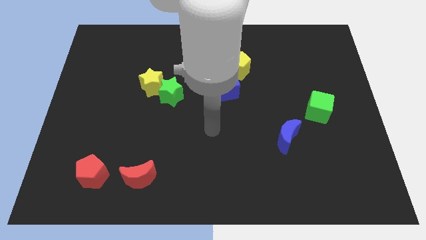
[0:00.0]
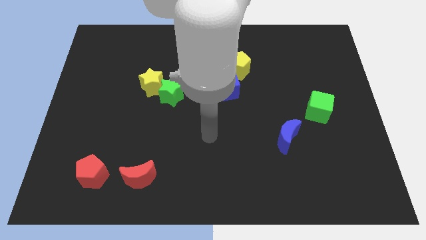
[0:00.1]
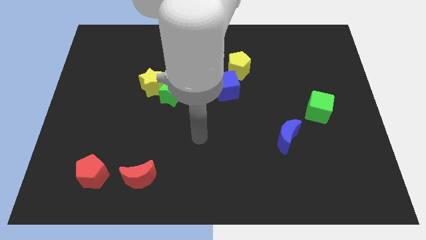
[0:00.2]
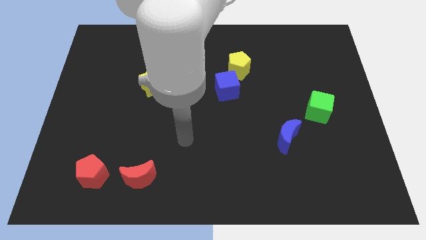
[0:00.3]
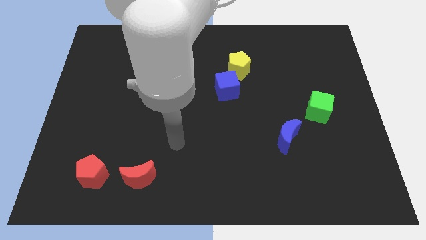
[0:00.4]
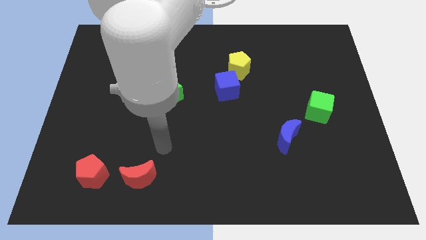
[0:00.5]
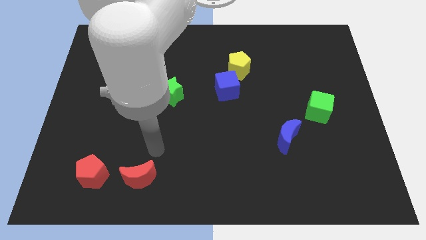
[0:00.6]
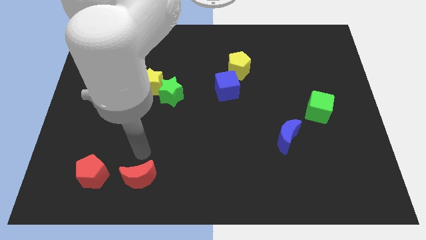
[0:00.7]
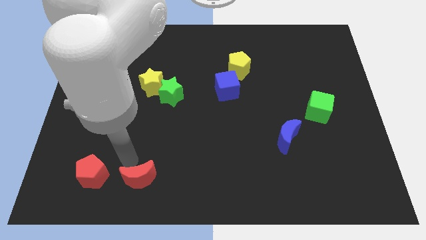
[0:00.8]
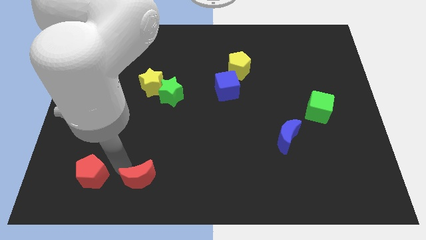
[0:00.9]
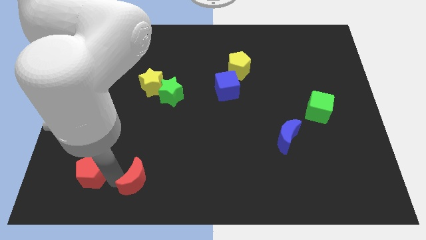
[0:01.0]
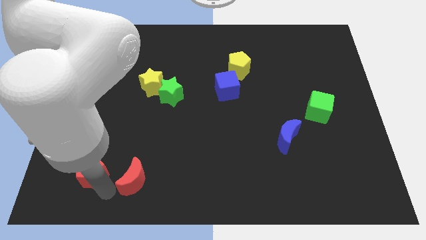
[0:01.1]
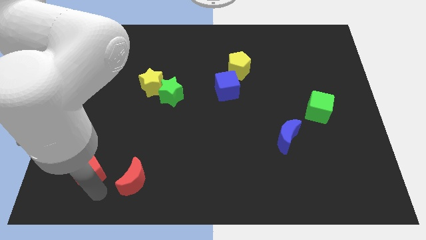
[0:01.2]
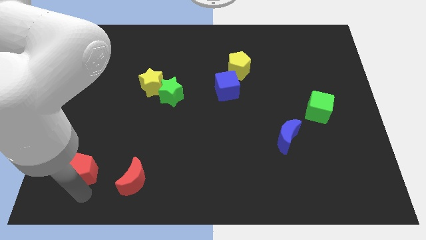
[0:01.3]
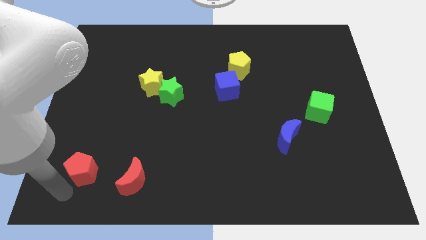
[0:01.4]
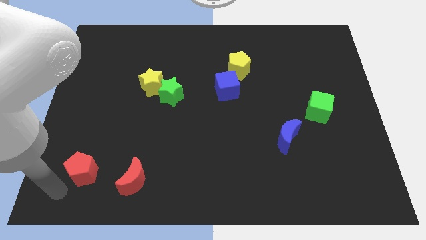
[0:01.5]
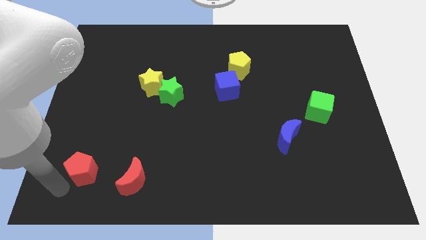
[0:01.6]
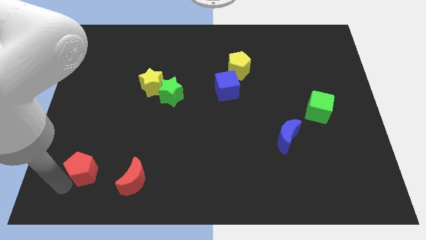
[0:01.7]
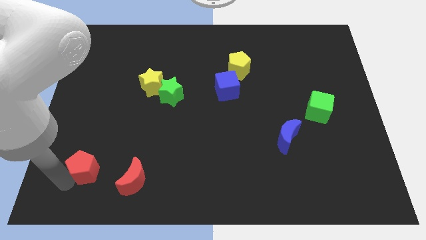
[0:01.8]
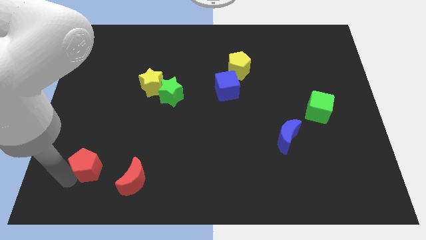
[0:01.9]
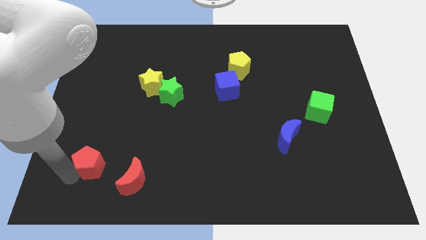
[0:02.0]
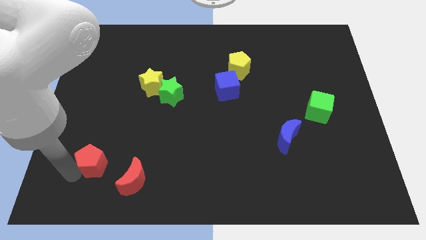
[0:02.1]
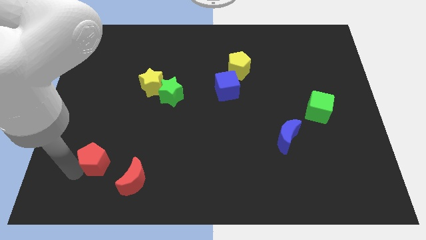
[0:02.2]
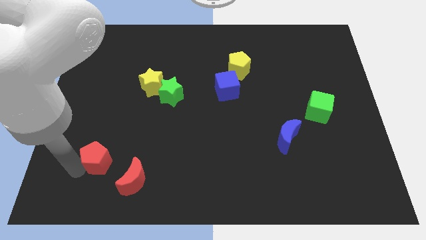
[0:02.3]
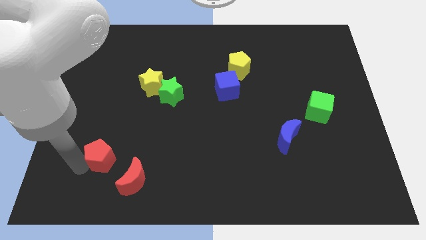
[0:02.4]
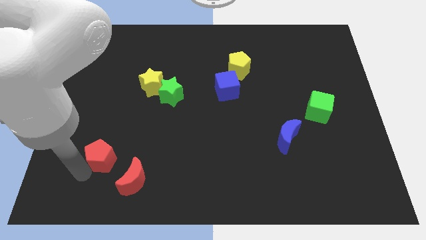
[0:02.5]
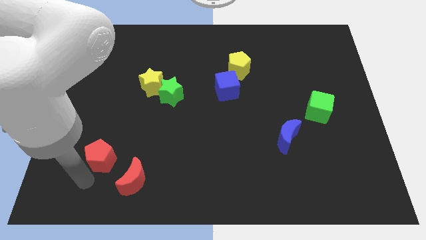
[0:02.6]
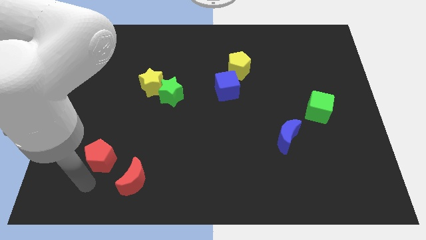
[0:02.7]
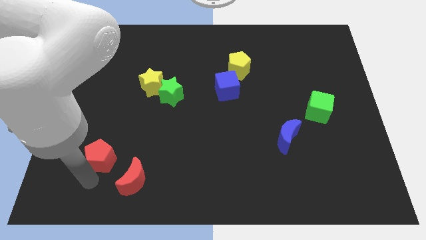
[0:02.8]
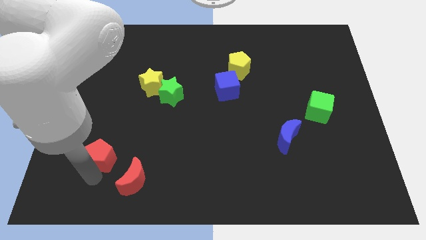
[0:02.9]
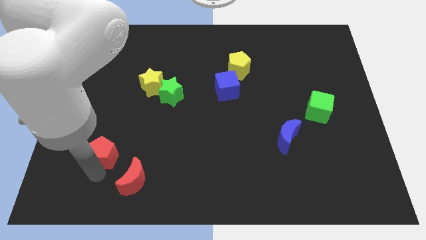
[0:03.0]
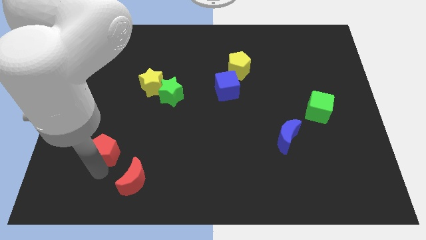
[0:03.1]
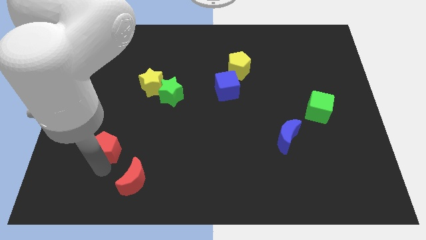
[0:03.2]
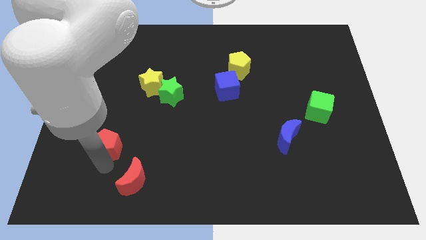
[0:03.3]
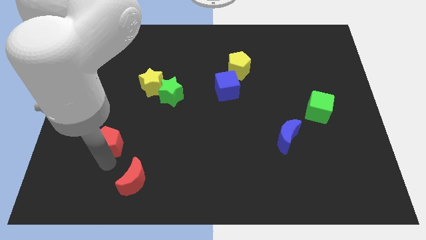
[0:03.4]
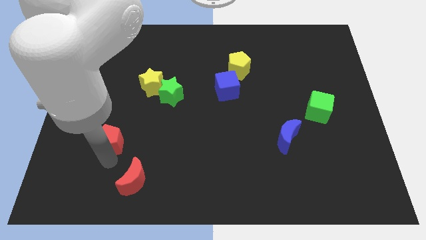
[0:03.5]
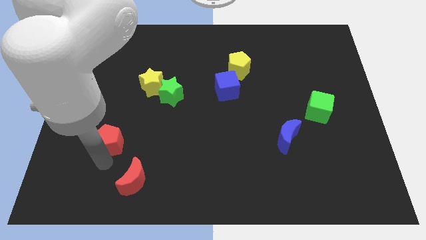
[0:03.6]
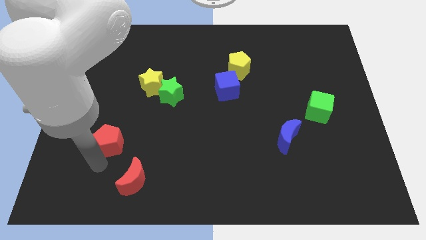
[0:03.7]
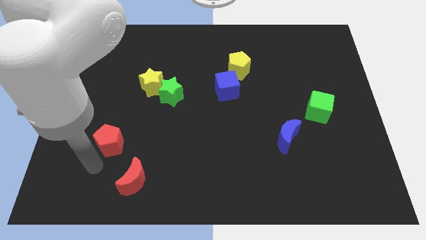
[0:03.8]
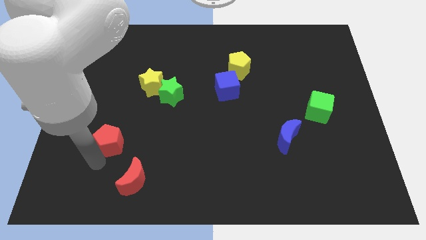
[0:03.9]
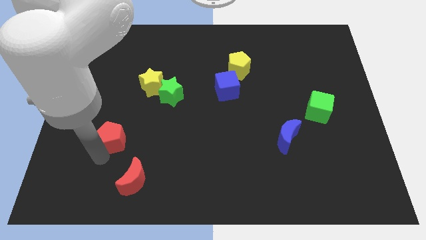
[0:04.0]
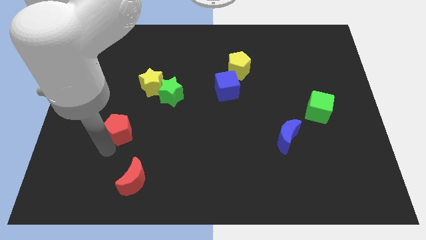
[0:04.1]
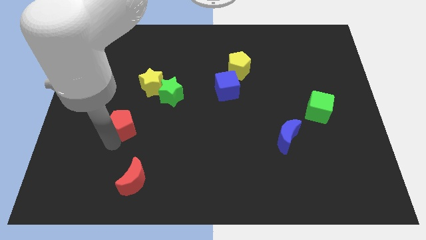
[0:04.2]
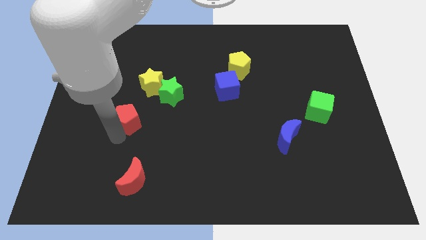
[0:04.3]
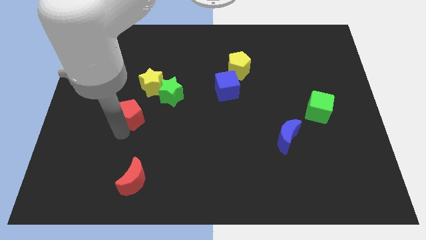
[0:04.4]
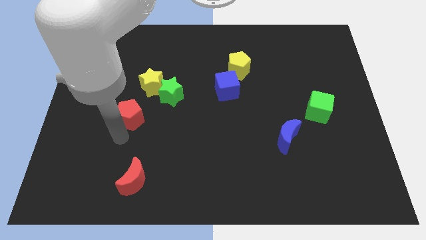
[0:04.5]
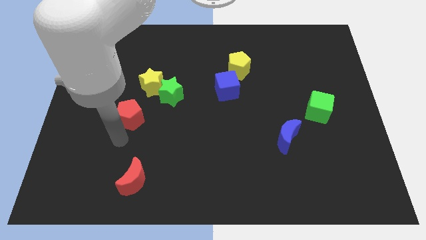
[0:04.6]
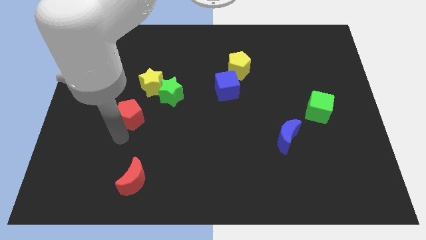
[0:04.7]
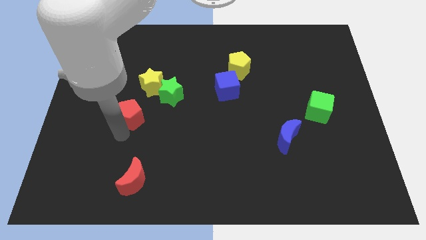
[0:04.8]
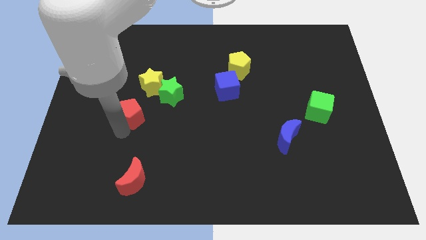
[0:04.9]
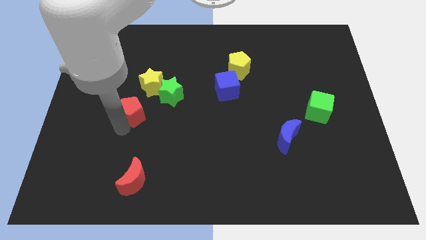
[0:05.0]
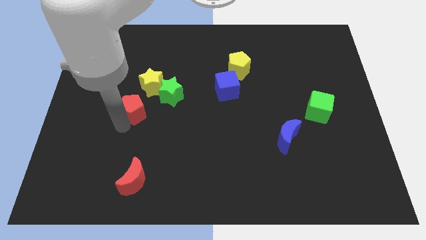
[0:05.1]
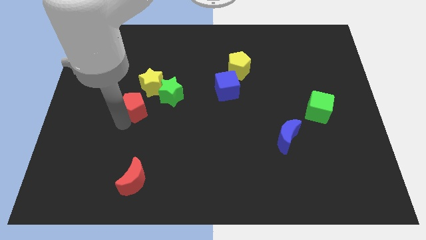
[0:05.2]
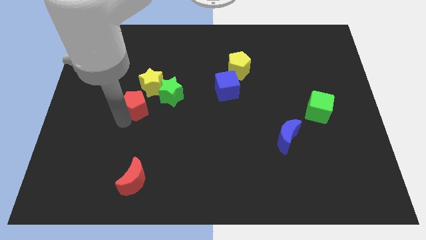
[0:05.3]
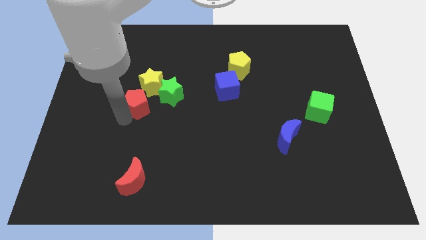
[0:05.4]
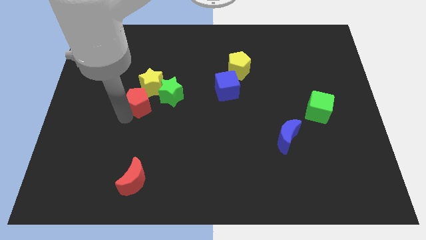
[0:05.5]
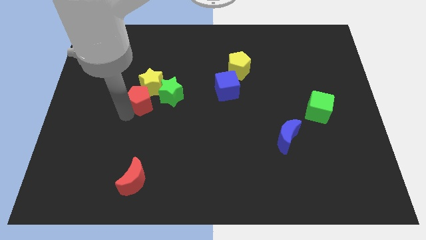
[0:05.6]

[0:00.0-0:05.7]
push the red pentagon towards the yellow star

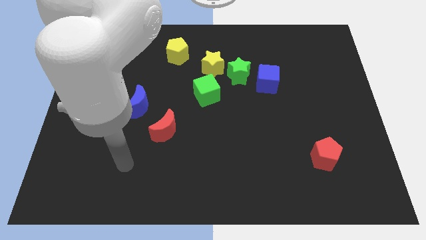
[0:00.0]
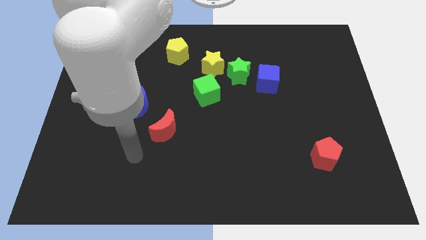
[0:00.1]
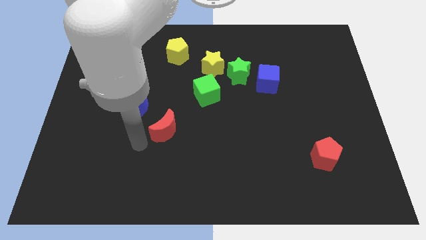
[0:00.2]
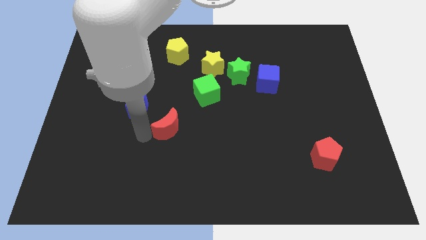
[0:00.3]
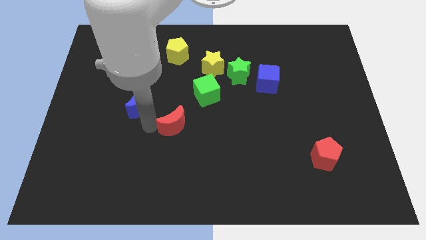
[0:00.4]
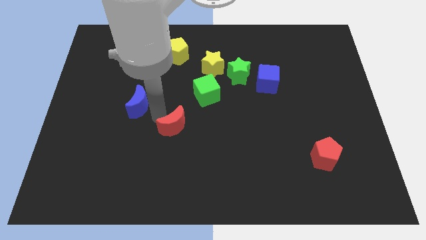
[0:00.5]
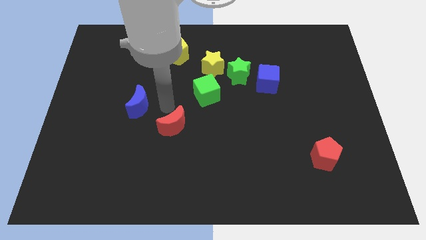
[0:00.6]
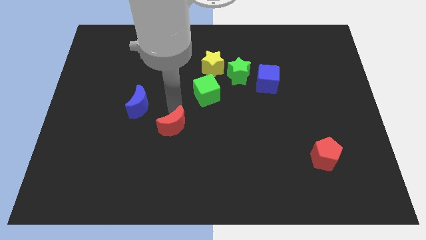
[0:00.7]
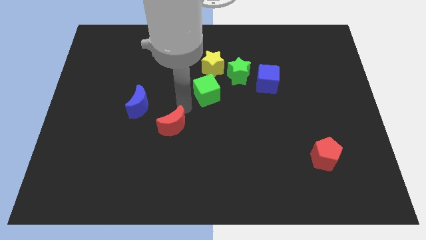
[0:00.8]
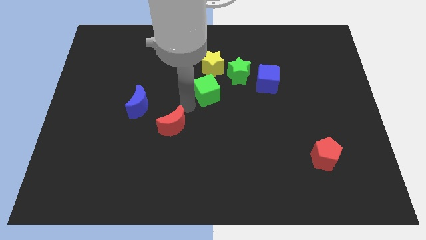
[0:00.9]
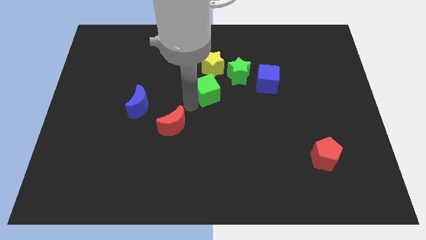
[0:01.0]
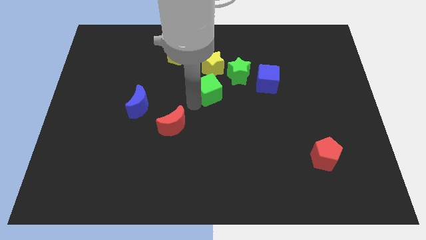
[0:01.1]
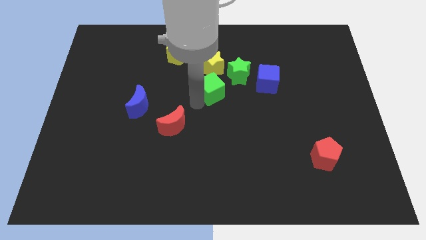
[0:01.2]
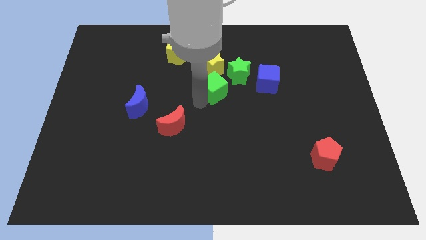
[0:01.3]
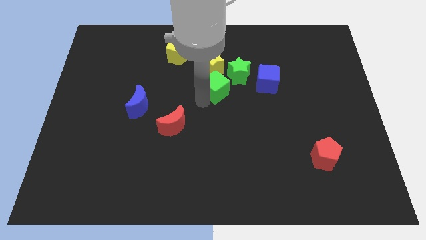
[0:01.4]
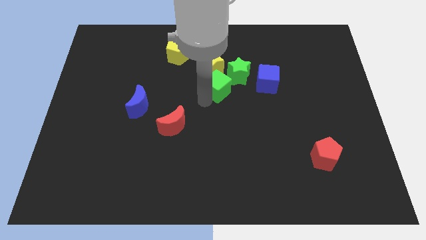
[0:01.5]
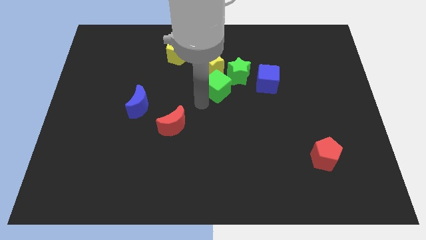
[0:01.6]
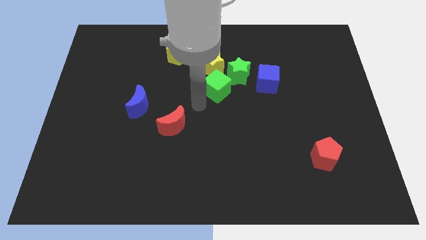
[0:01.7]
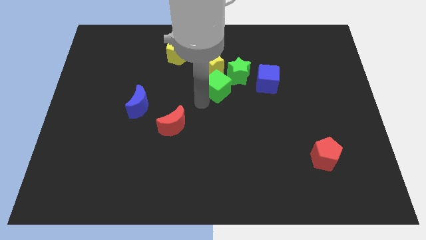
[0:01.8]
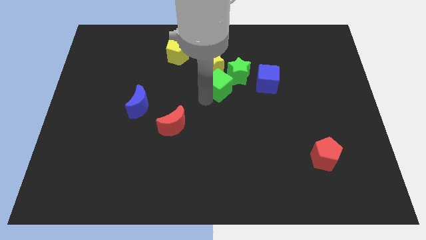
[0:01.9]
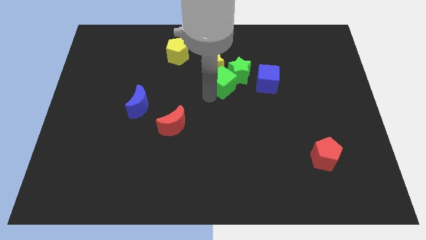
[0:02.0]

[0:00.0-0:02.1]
put the green cube next to the green star
